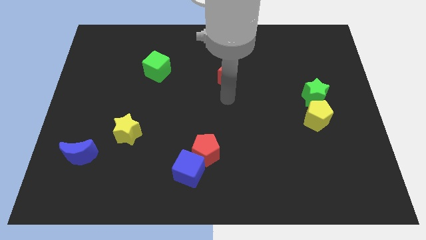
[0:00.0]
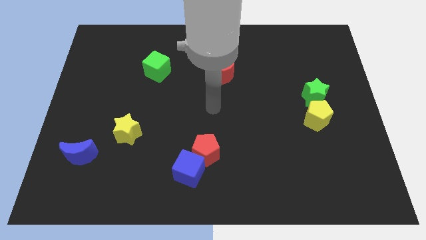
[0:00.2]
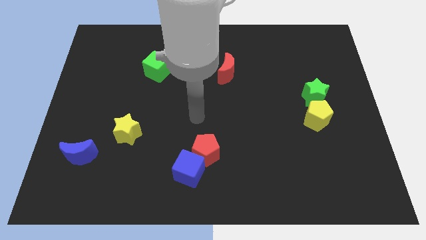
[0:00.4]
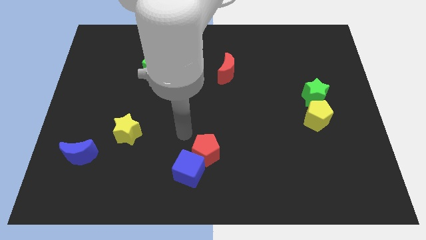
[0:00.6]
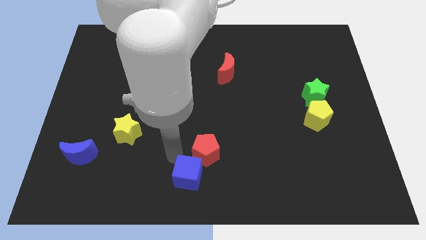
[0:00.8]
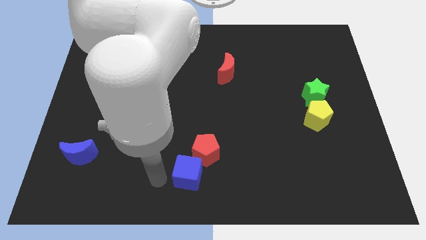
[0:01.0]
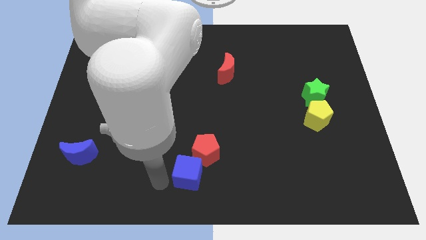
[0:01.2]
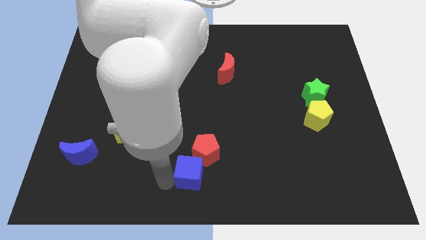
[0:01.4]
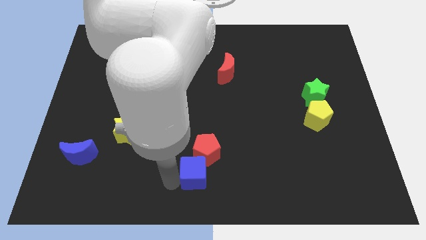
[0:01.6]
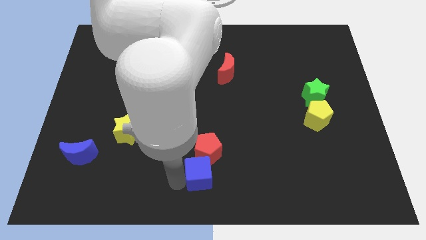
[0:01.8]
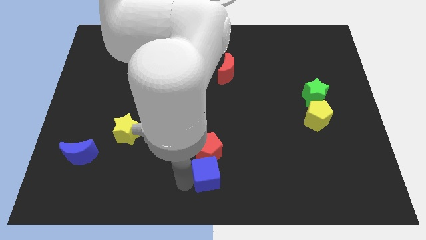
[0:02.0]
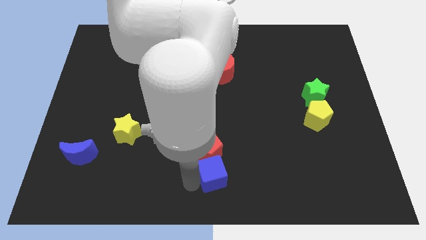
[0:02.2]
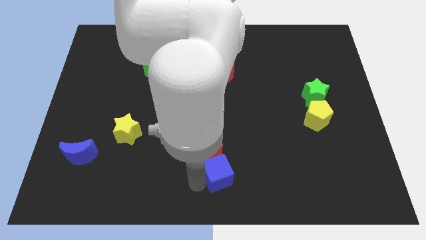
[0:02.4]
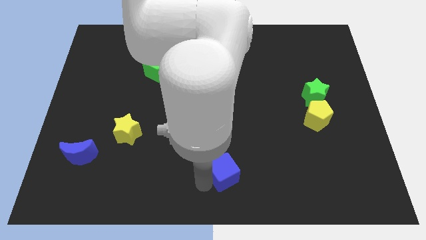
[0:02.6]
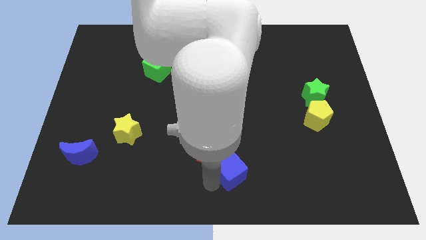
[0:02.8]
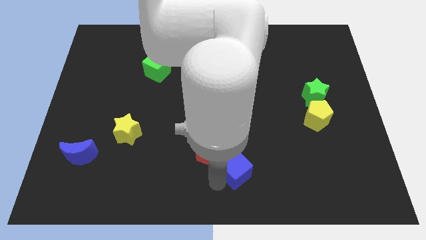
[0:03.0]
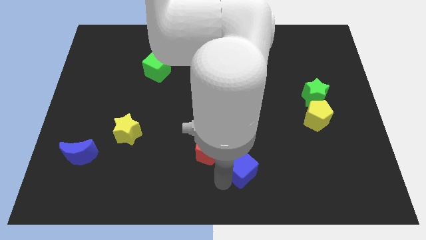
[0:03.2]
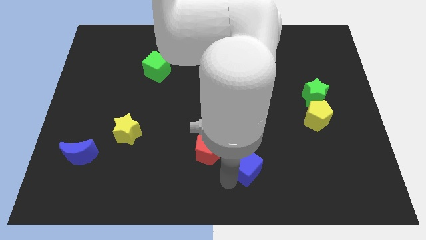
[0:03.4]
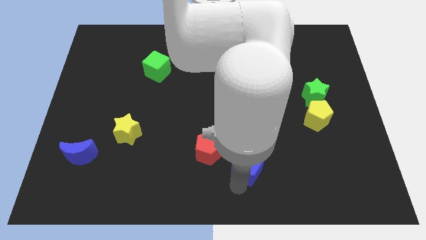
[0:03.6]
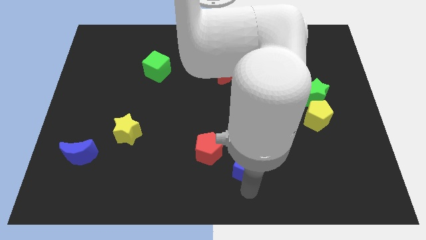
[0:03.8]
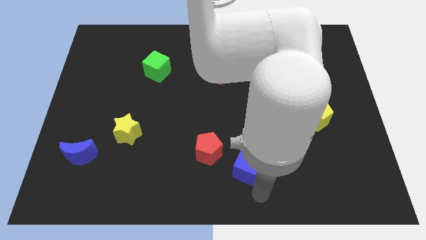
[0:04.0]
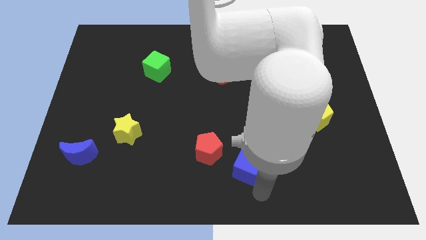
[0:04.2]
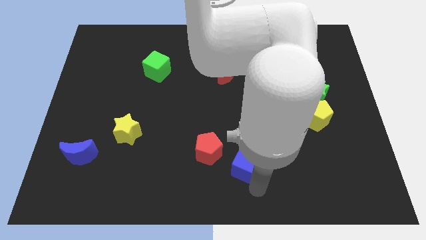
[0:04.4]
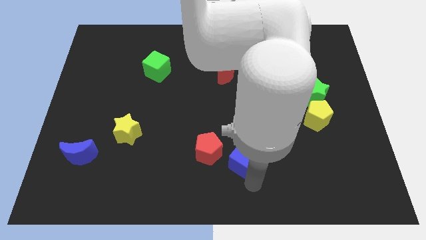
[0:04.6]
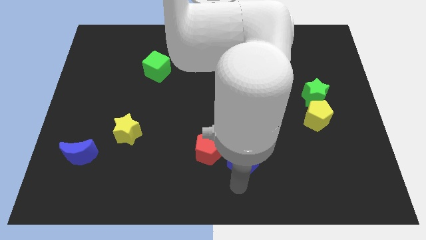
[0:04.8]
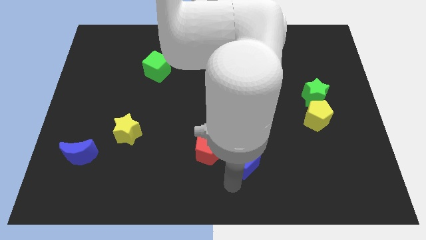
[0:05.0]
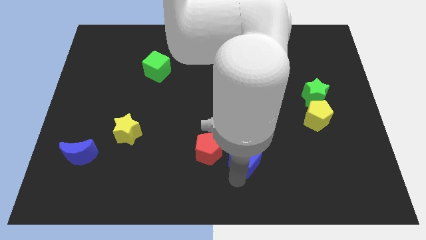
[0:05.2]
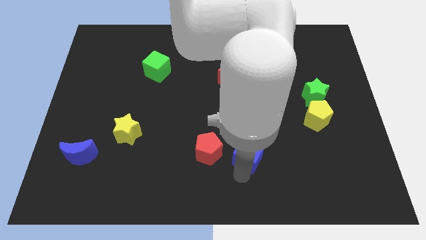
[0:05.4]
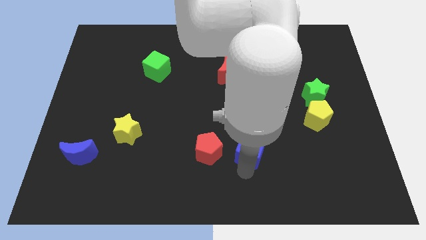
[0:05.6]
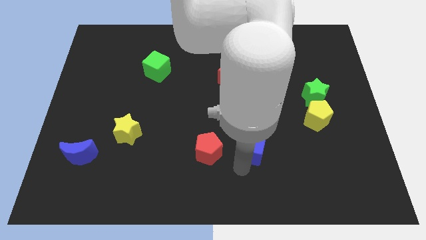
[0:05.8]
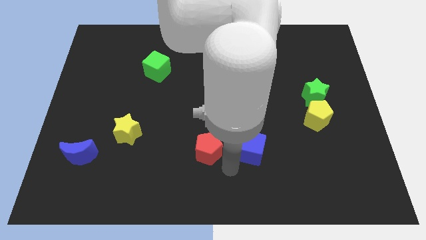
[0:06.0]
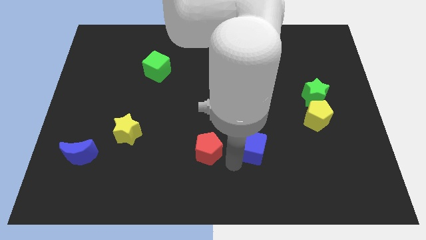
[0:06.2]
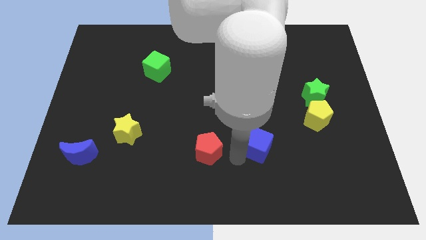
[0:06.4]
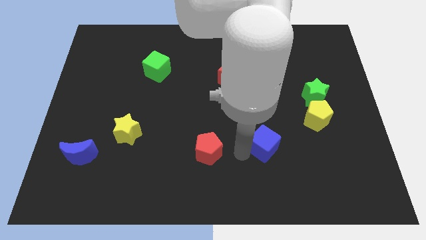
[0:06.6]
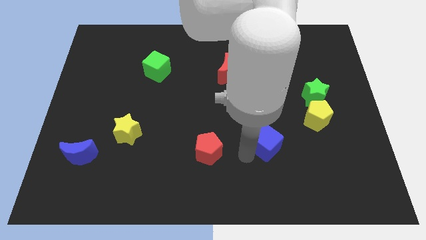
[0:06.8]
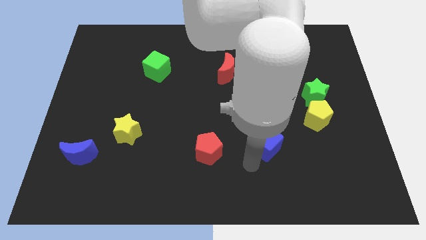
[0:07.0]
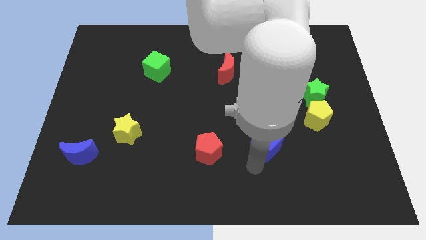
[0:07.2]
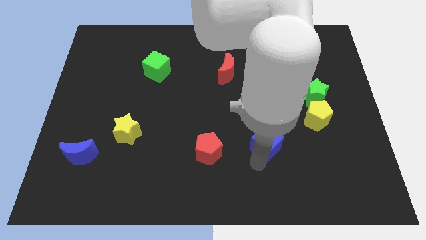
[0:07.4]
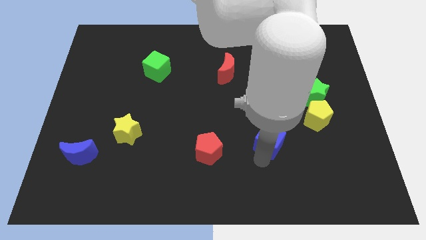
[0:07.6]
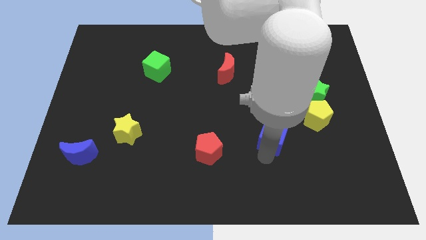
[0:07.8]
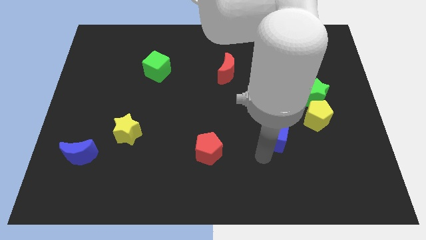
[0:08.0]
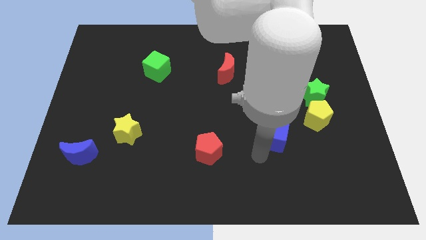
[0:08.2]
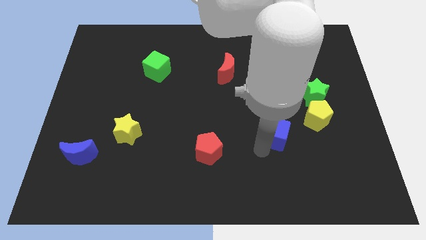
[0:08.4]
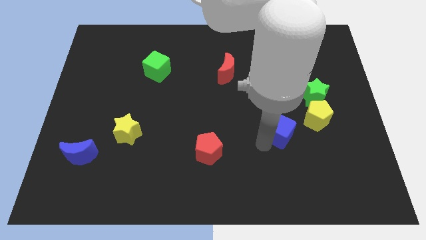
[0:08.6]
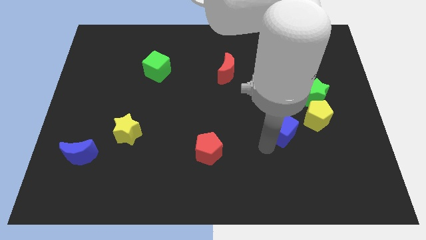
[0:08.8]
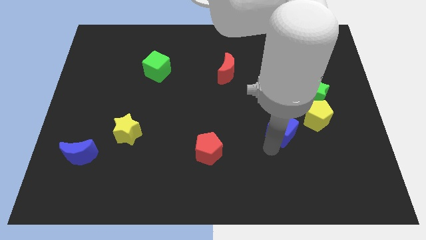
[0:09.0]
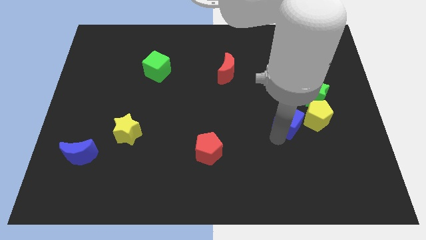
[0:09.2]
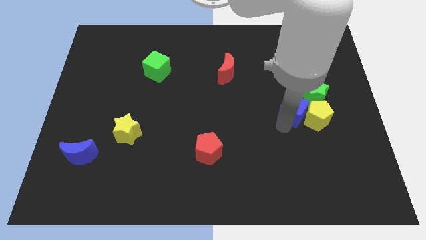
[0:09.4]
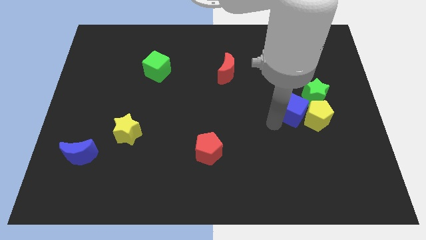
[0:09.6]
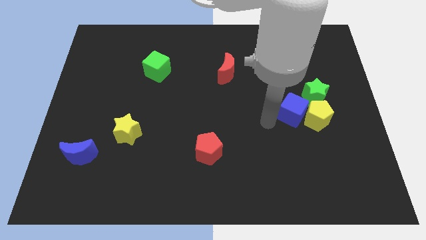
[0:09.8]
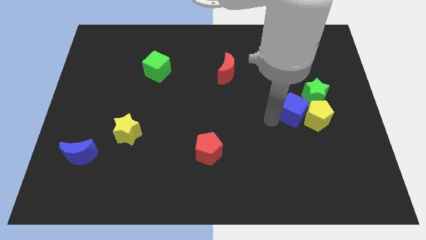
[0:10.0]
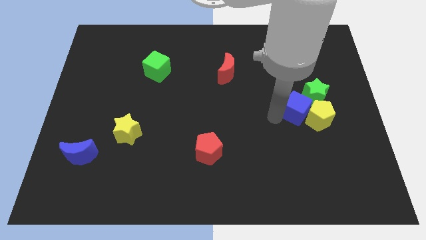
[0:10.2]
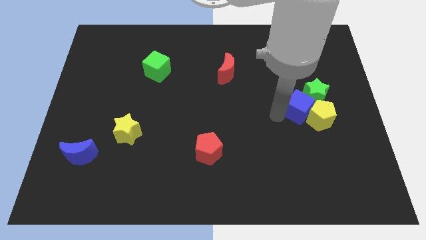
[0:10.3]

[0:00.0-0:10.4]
push the blue cube towards the green star

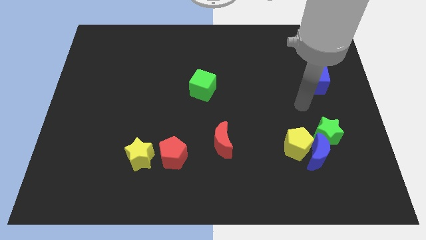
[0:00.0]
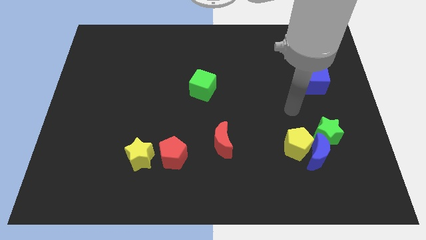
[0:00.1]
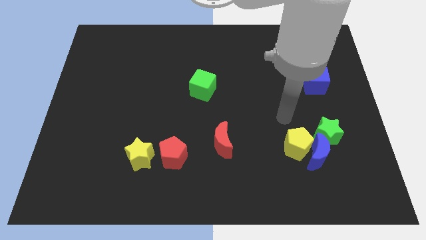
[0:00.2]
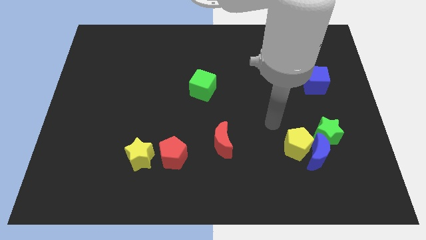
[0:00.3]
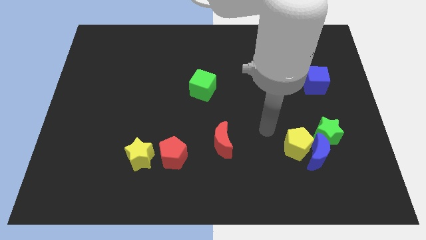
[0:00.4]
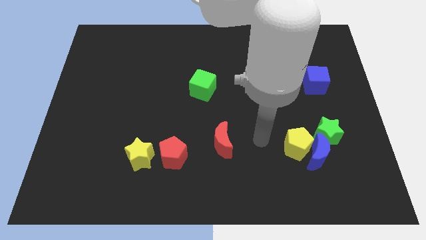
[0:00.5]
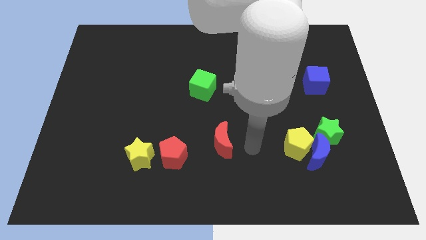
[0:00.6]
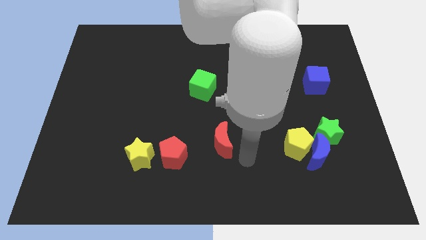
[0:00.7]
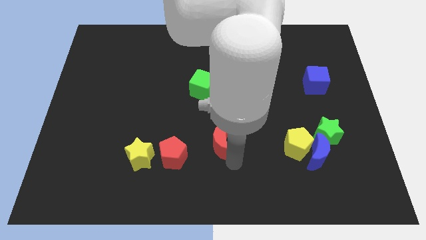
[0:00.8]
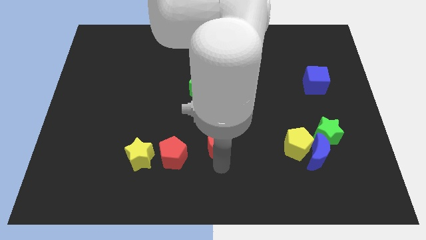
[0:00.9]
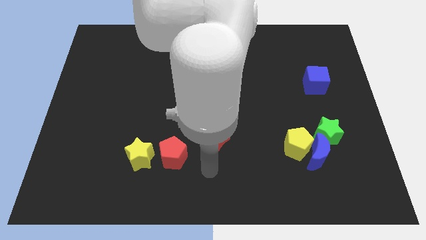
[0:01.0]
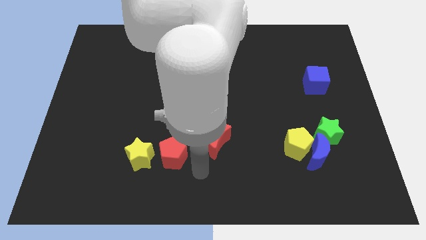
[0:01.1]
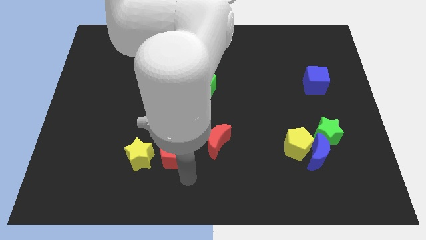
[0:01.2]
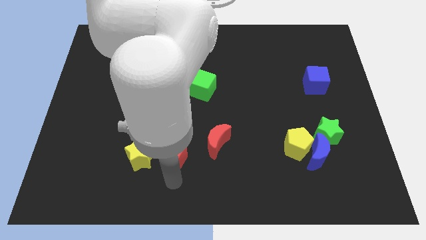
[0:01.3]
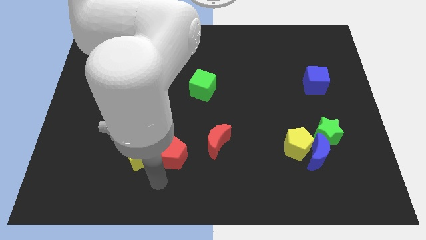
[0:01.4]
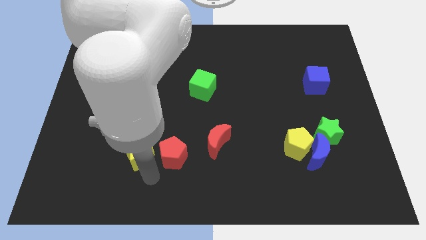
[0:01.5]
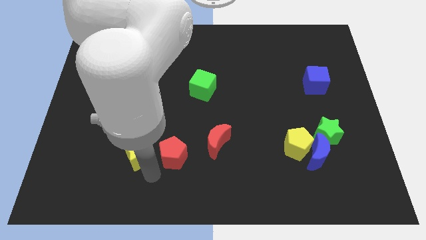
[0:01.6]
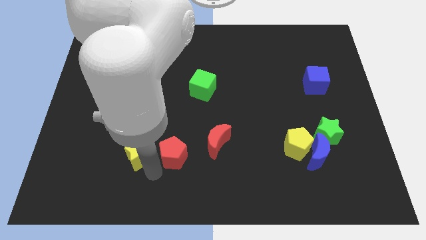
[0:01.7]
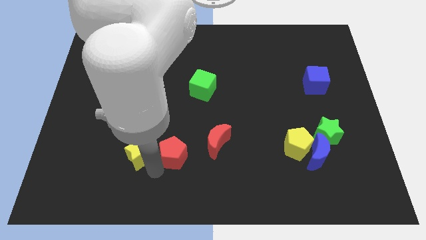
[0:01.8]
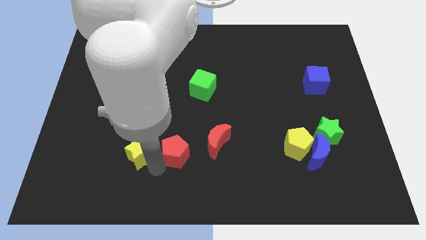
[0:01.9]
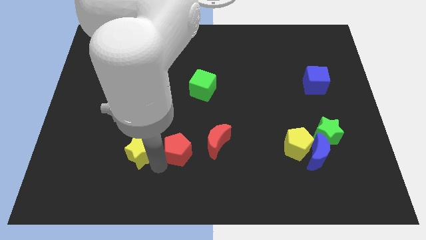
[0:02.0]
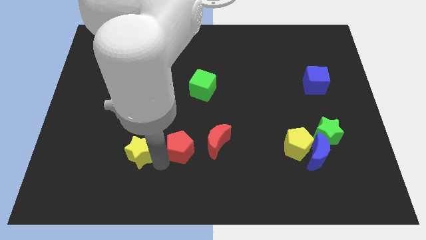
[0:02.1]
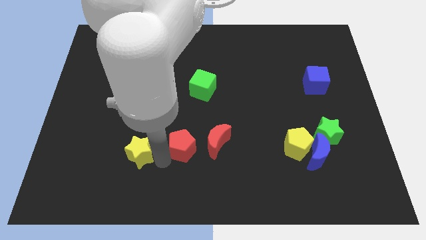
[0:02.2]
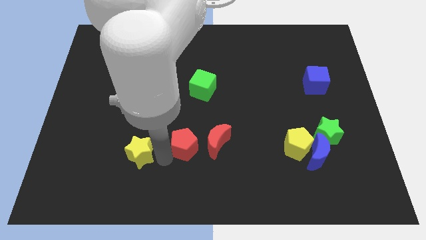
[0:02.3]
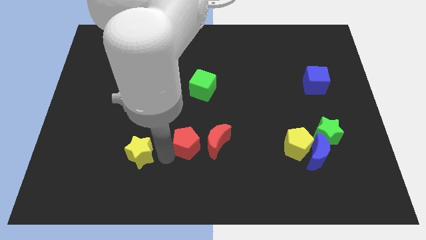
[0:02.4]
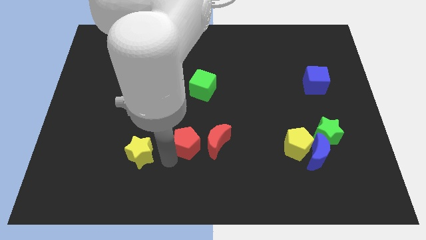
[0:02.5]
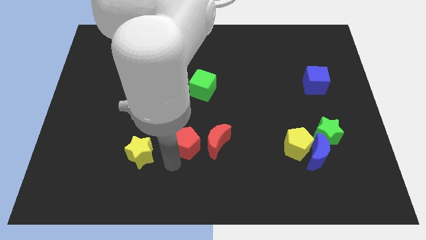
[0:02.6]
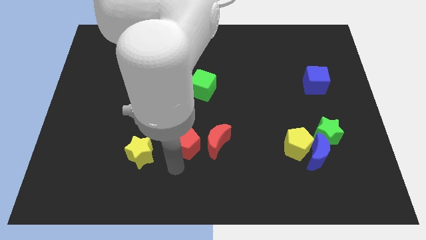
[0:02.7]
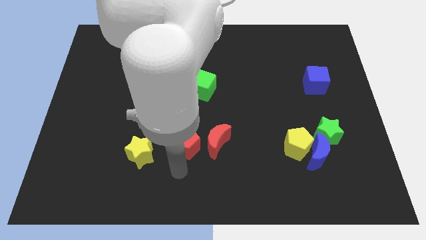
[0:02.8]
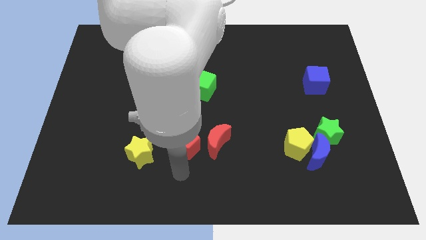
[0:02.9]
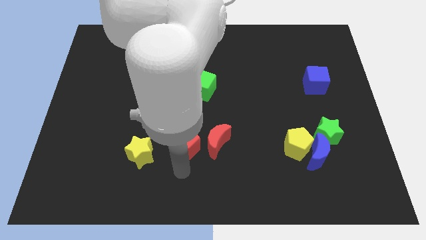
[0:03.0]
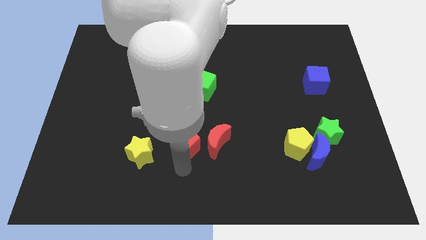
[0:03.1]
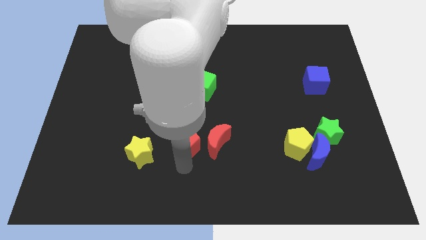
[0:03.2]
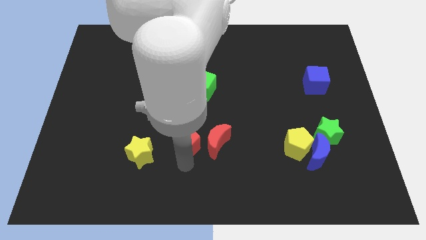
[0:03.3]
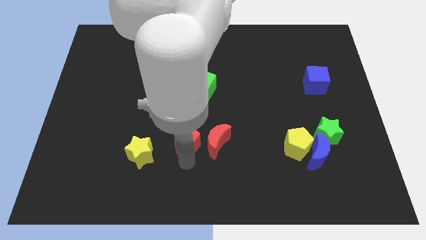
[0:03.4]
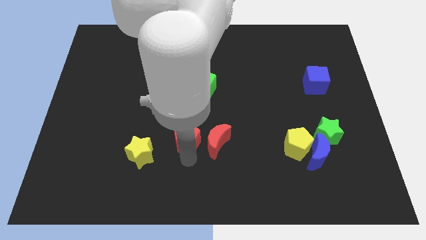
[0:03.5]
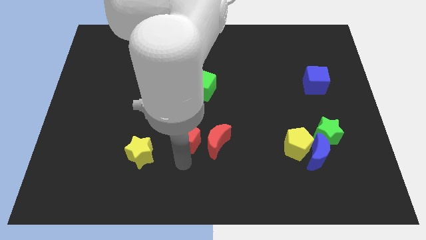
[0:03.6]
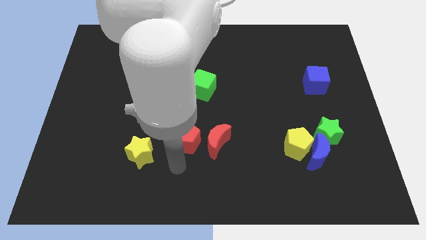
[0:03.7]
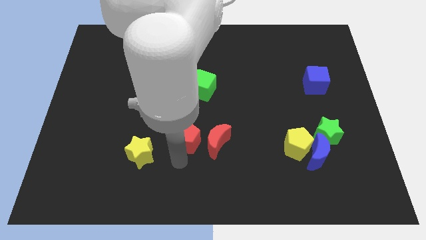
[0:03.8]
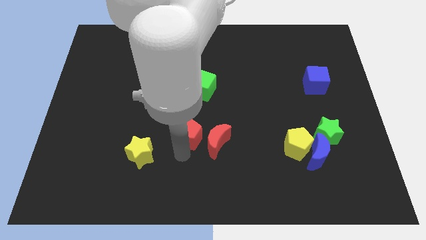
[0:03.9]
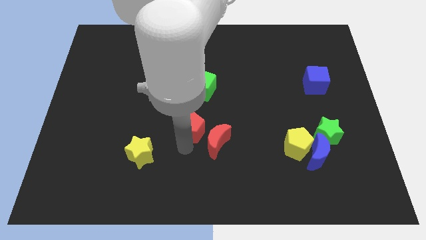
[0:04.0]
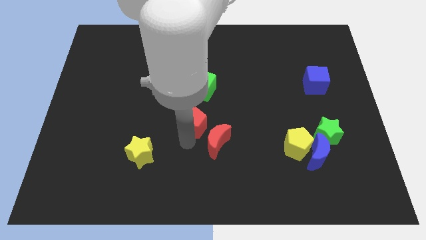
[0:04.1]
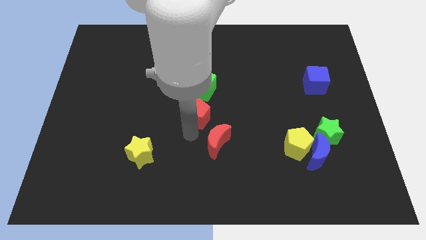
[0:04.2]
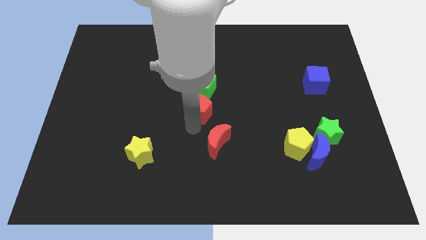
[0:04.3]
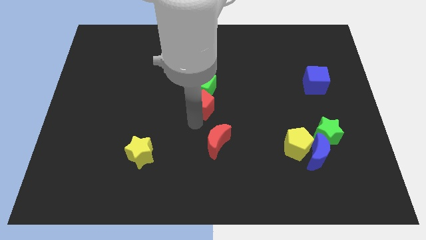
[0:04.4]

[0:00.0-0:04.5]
slide the red pentagon close to the green cube
